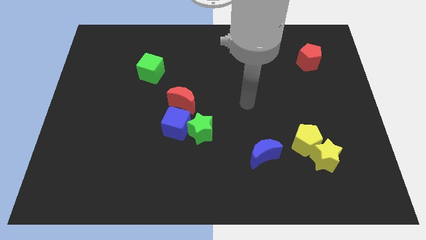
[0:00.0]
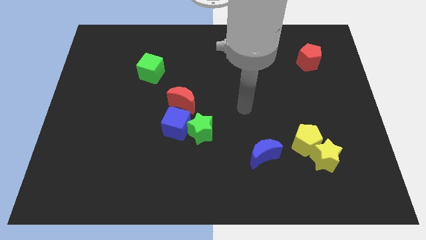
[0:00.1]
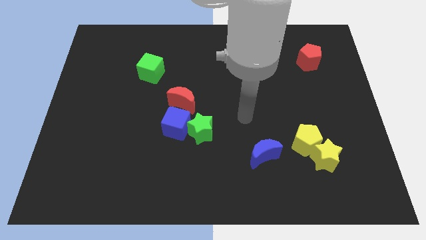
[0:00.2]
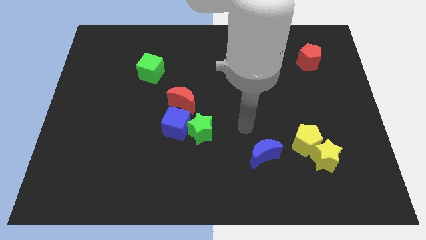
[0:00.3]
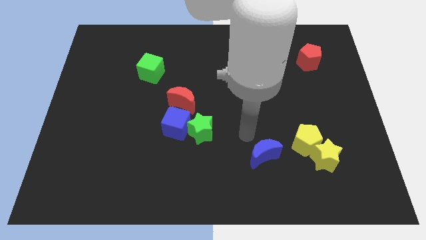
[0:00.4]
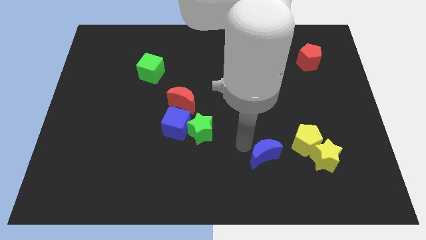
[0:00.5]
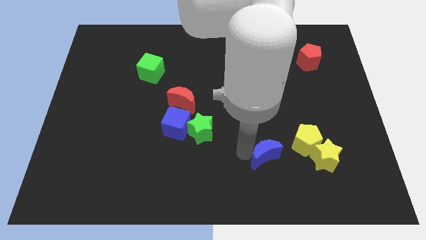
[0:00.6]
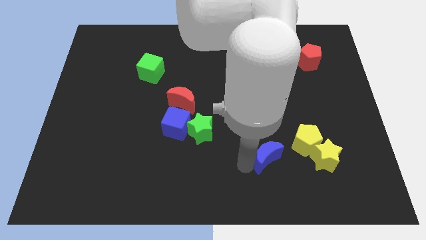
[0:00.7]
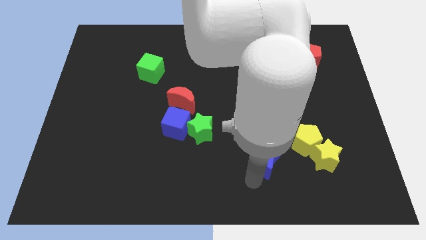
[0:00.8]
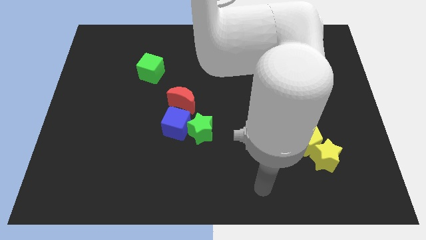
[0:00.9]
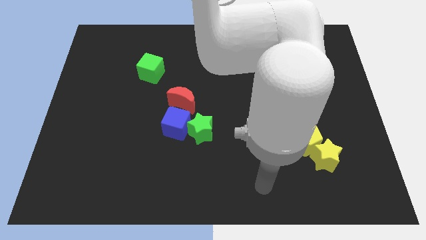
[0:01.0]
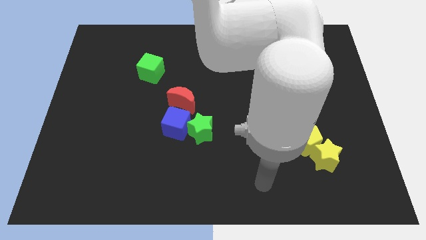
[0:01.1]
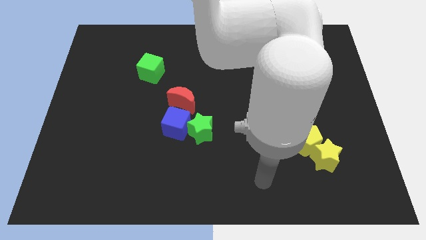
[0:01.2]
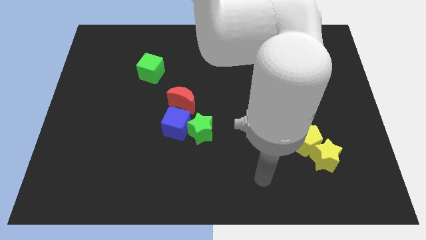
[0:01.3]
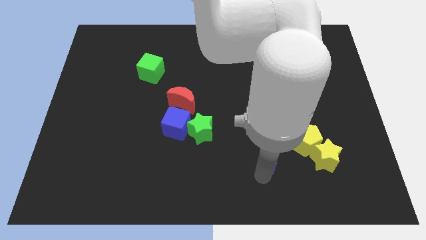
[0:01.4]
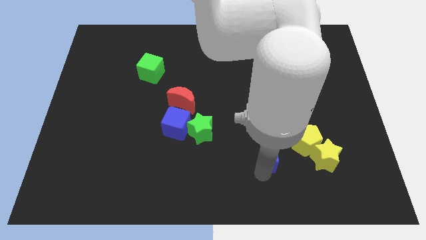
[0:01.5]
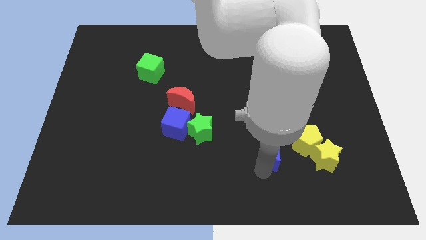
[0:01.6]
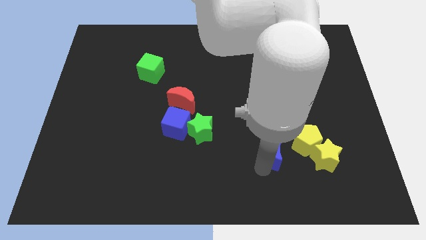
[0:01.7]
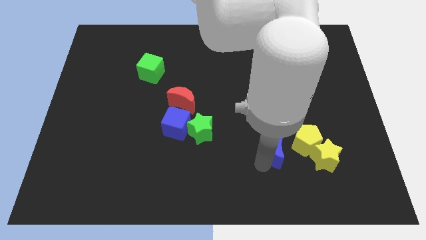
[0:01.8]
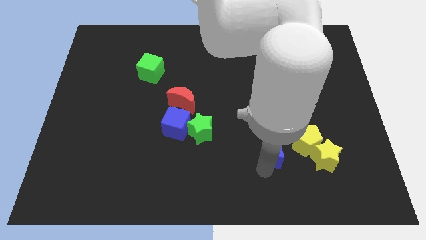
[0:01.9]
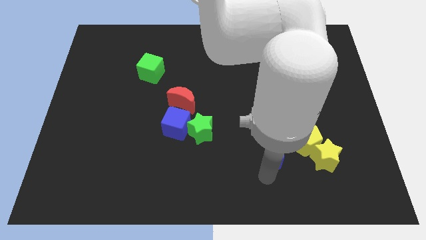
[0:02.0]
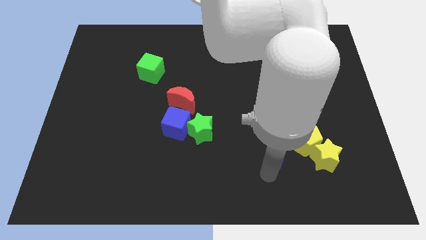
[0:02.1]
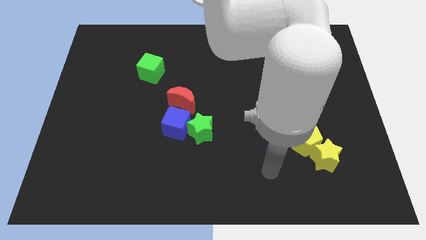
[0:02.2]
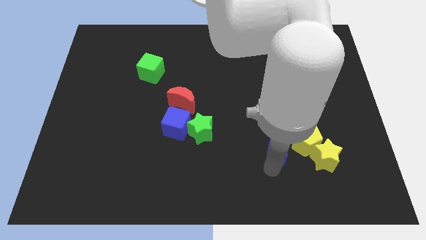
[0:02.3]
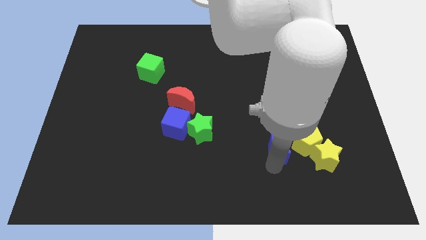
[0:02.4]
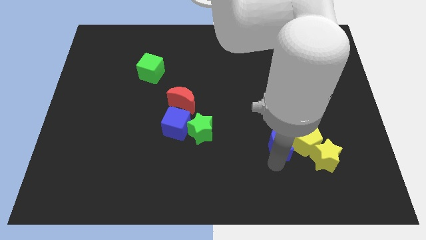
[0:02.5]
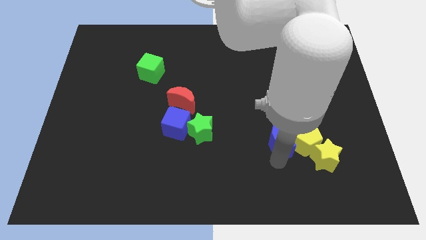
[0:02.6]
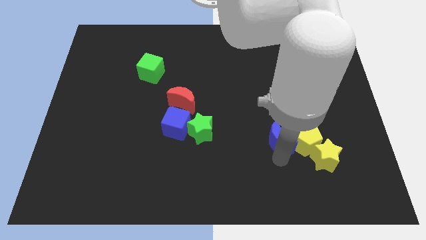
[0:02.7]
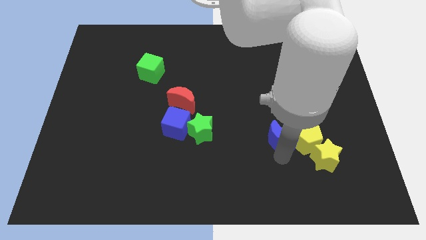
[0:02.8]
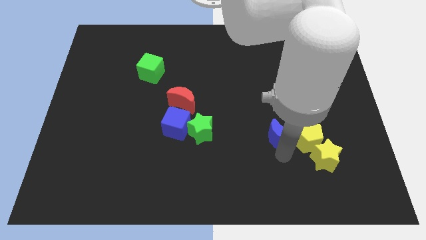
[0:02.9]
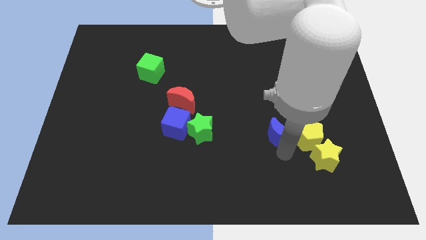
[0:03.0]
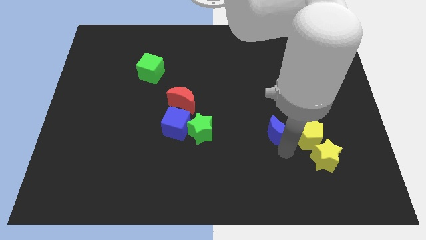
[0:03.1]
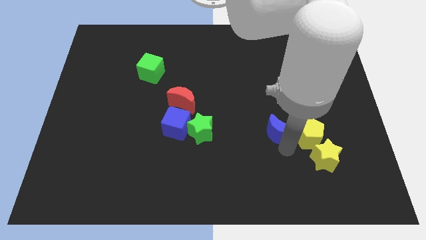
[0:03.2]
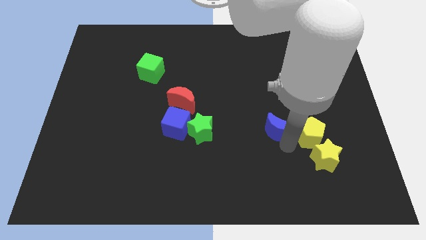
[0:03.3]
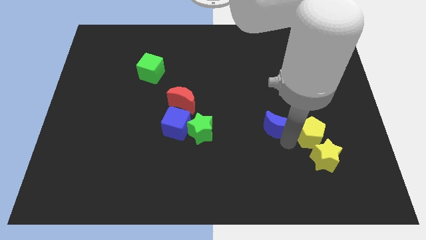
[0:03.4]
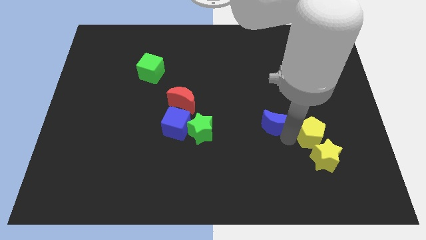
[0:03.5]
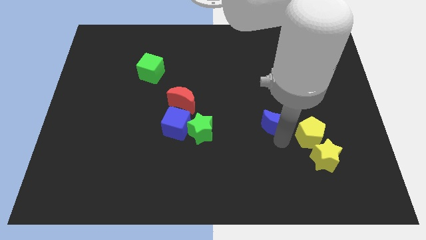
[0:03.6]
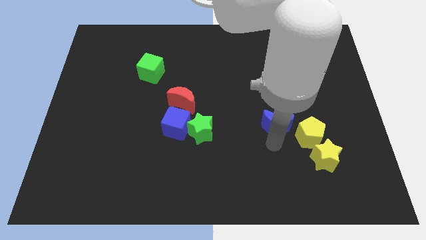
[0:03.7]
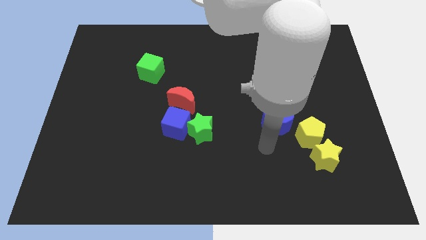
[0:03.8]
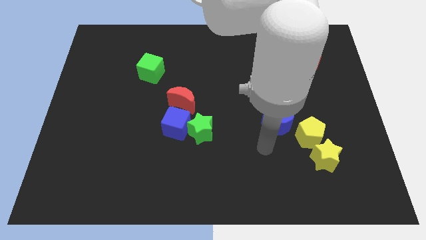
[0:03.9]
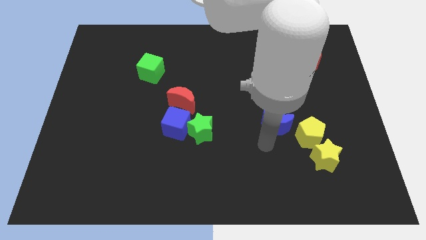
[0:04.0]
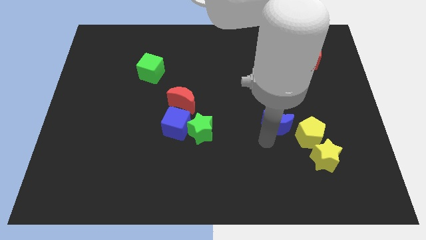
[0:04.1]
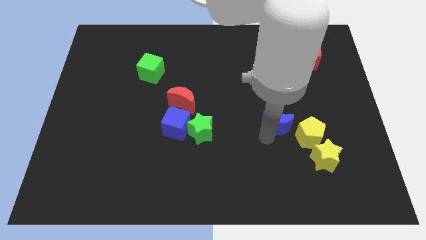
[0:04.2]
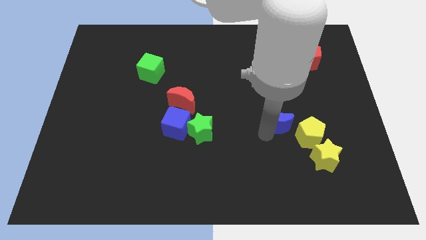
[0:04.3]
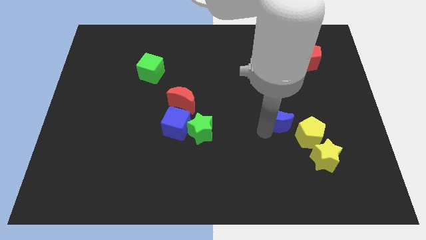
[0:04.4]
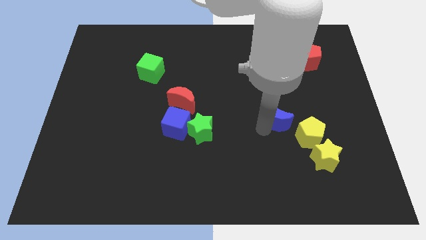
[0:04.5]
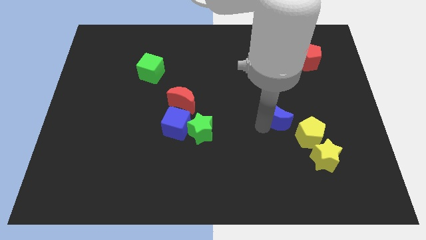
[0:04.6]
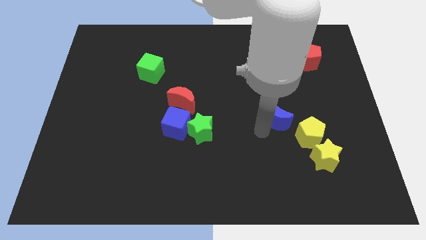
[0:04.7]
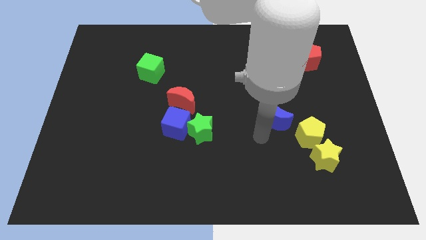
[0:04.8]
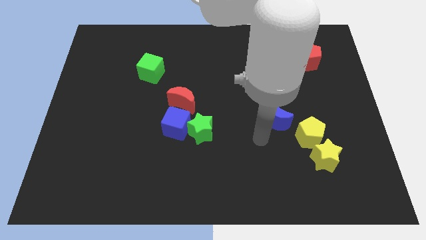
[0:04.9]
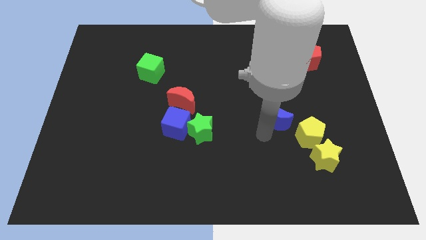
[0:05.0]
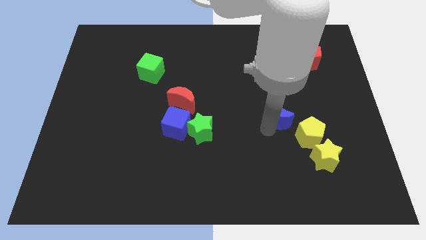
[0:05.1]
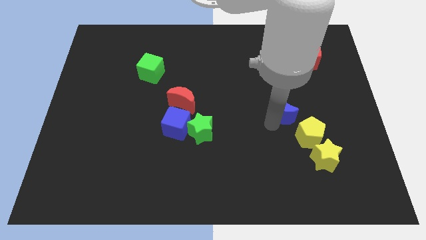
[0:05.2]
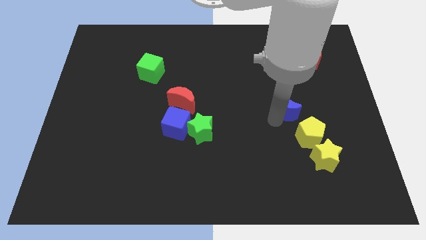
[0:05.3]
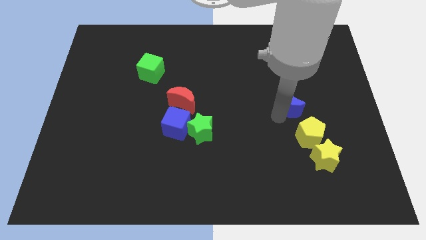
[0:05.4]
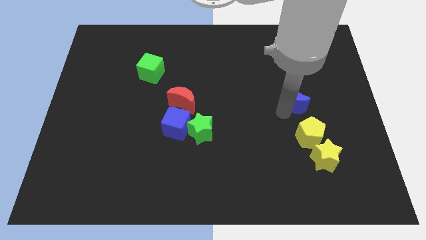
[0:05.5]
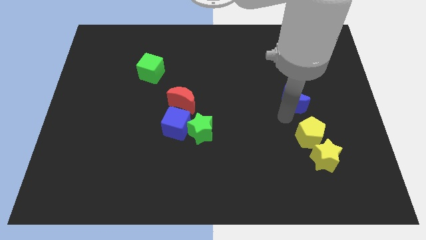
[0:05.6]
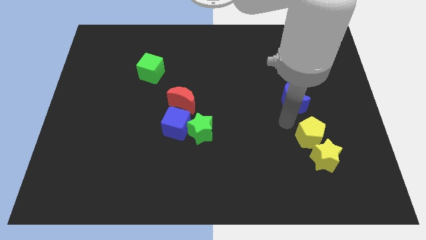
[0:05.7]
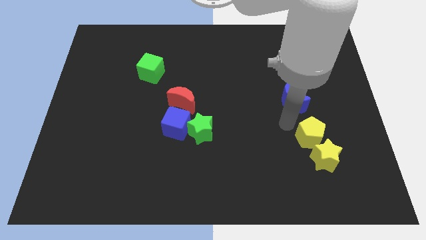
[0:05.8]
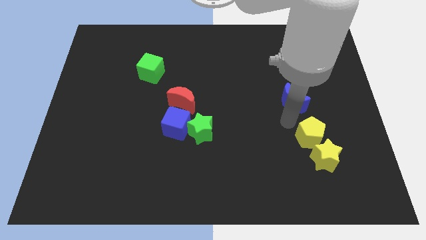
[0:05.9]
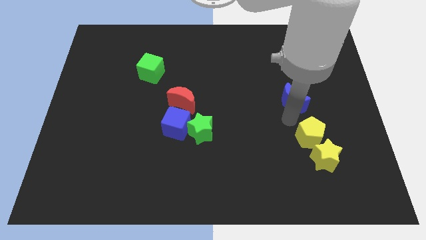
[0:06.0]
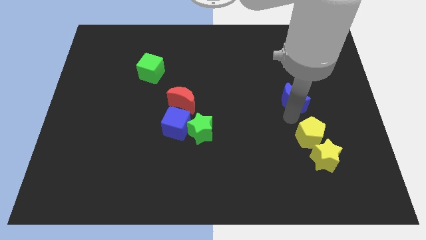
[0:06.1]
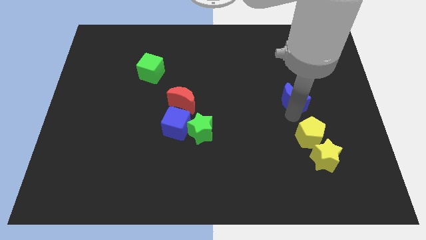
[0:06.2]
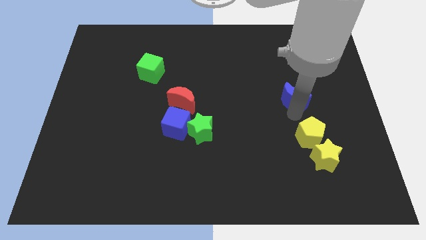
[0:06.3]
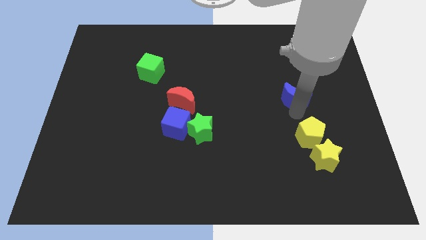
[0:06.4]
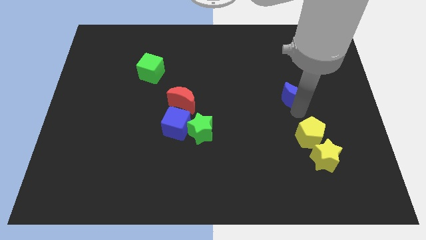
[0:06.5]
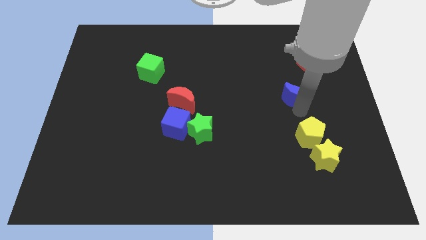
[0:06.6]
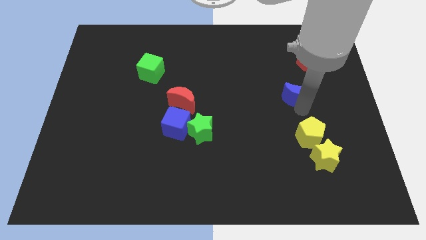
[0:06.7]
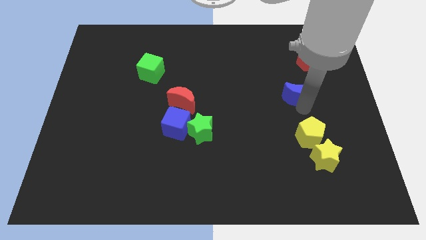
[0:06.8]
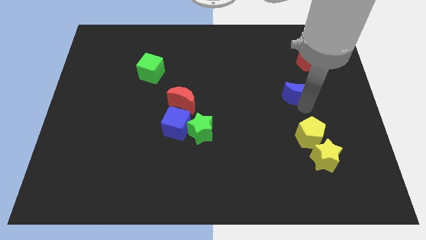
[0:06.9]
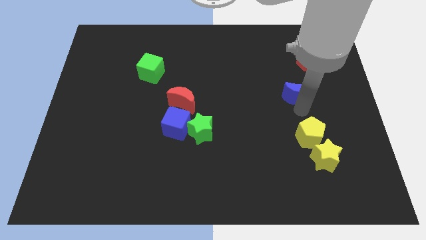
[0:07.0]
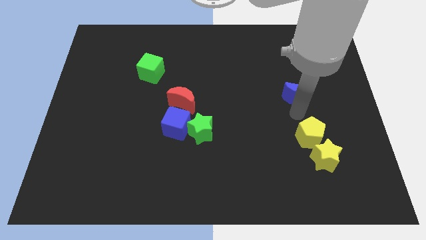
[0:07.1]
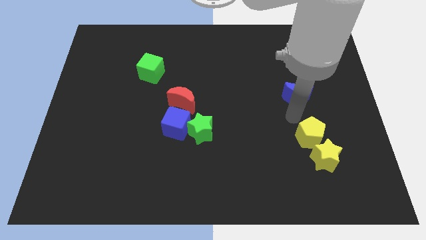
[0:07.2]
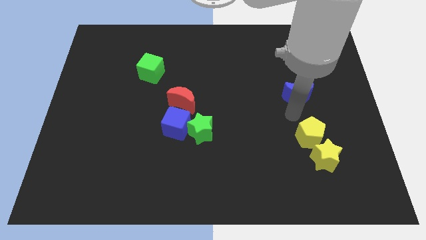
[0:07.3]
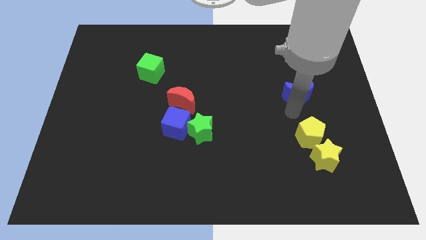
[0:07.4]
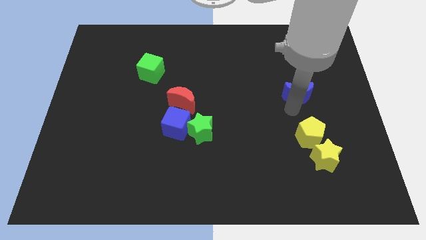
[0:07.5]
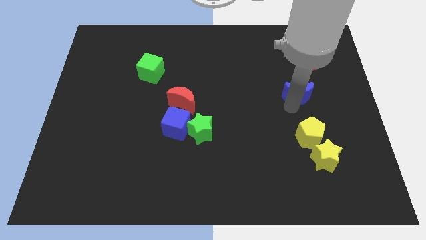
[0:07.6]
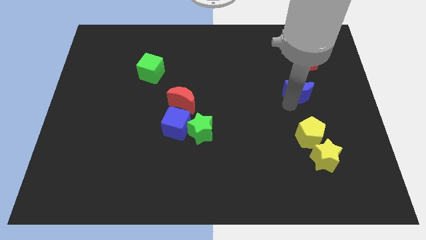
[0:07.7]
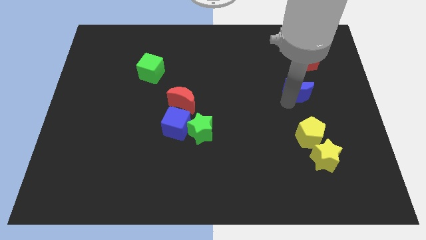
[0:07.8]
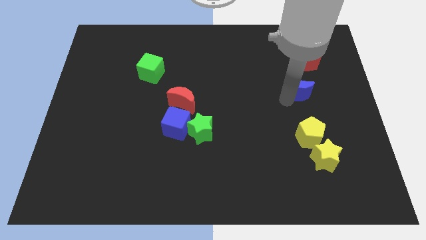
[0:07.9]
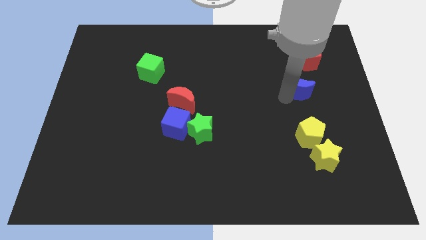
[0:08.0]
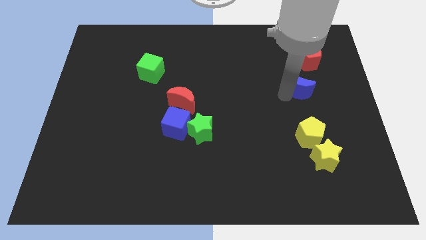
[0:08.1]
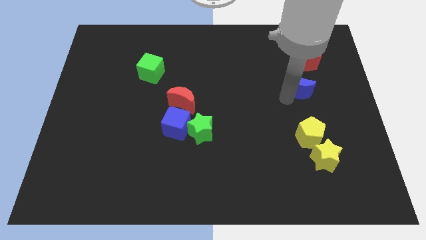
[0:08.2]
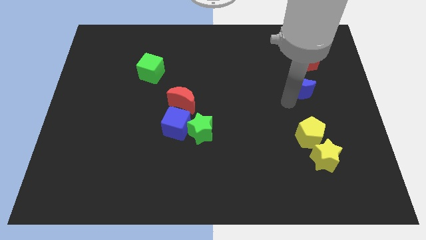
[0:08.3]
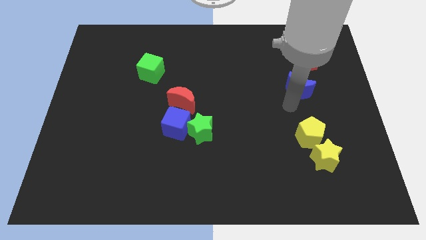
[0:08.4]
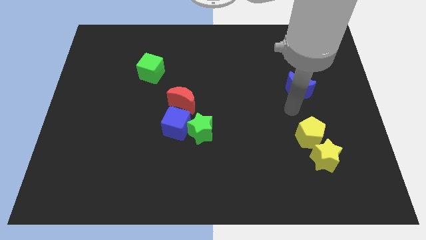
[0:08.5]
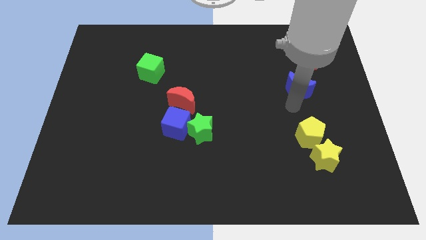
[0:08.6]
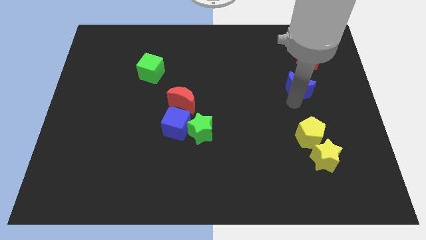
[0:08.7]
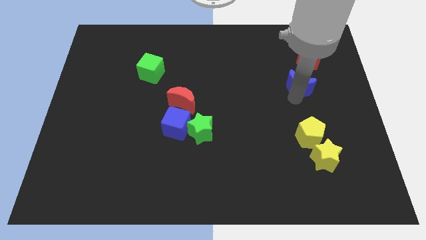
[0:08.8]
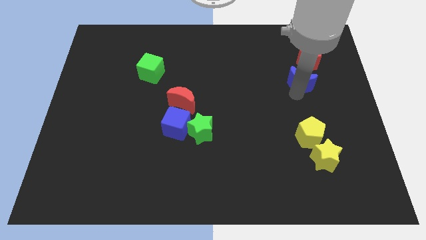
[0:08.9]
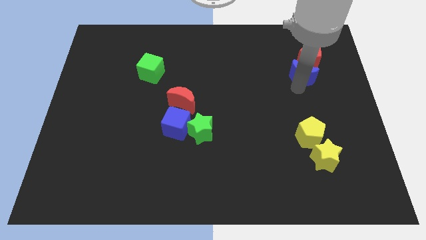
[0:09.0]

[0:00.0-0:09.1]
slide the blue moon close to the red pentagon
